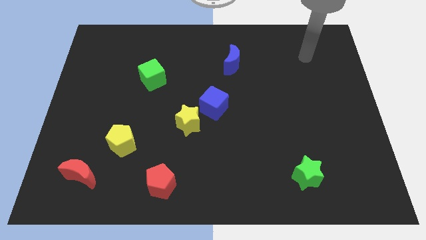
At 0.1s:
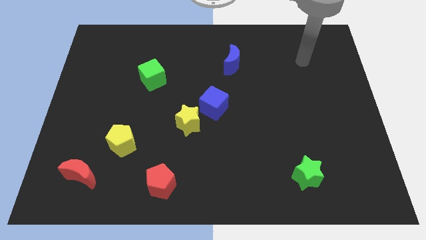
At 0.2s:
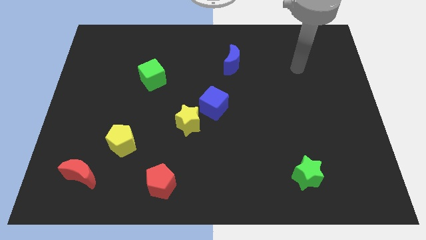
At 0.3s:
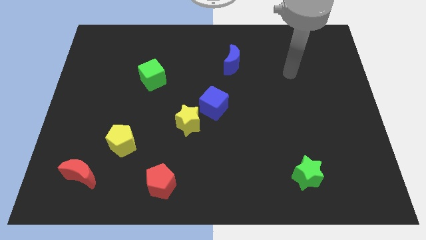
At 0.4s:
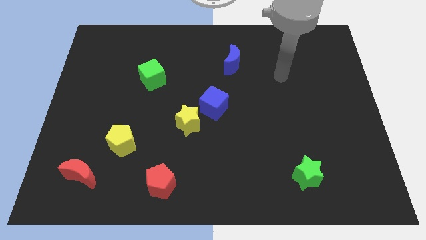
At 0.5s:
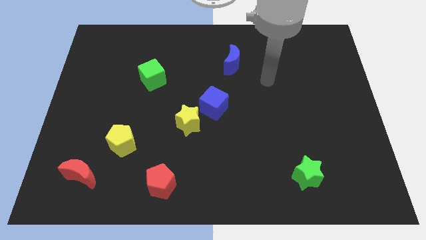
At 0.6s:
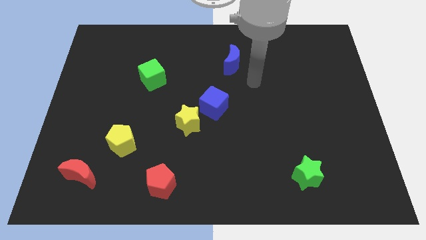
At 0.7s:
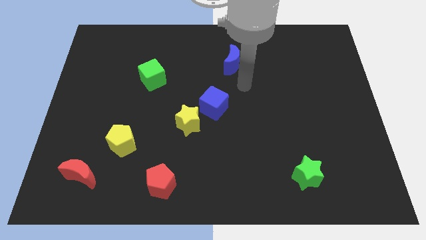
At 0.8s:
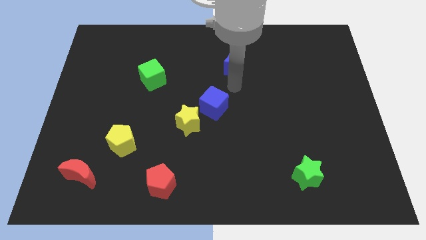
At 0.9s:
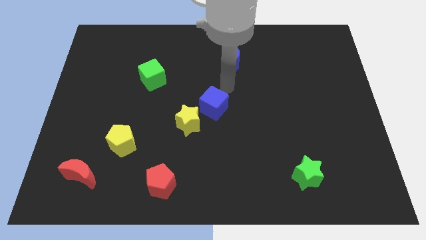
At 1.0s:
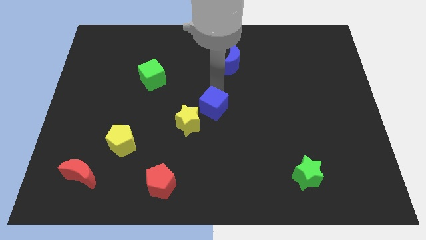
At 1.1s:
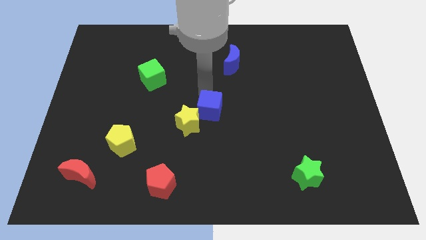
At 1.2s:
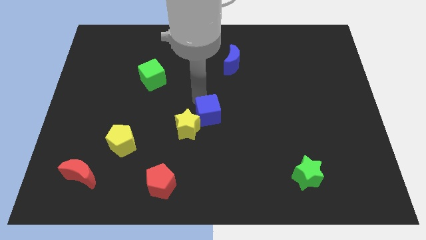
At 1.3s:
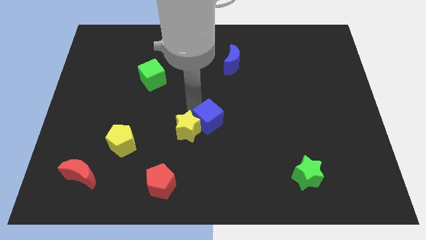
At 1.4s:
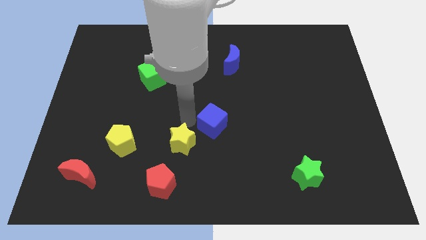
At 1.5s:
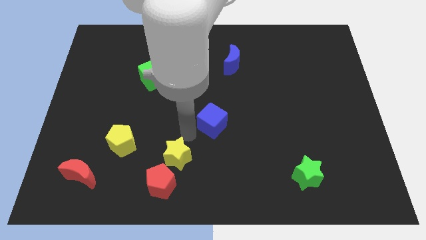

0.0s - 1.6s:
separate the blue cube from the yellow star

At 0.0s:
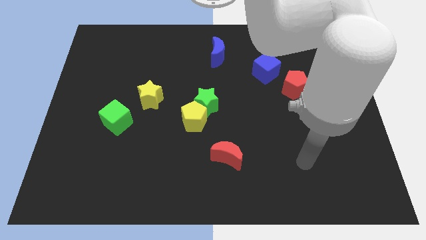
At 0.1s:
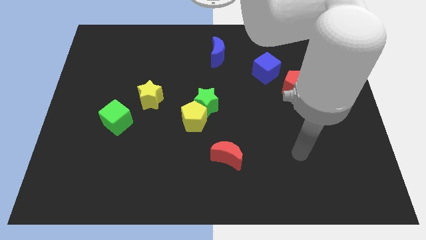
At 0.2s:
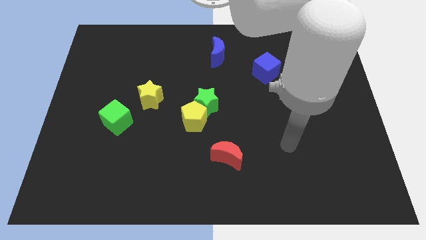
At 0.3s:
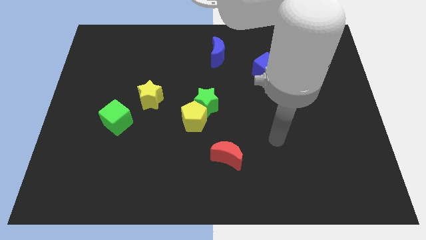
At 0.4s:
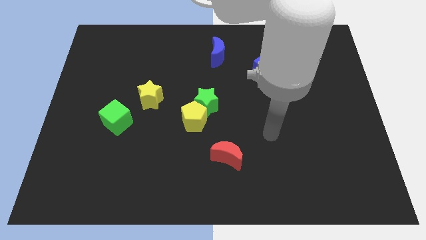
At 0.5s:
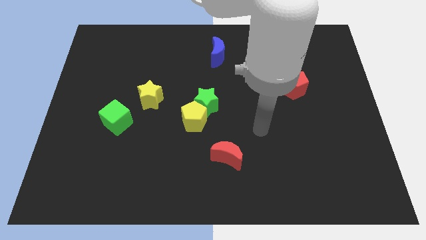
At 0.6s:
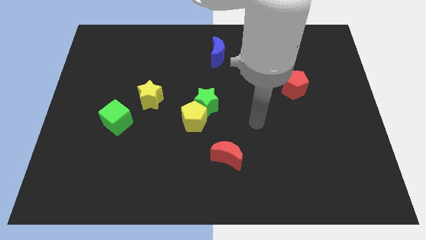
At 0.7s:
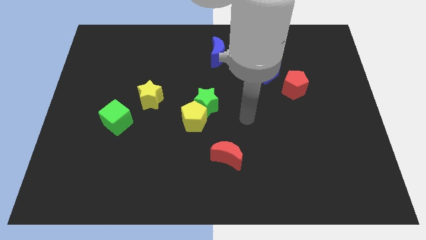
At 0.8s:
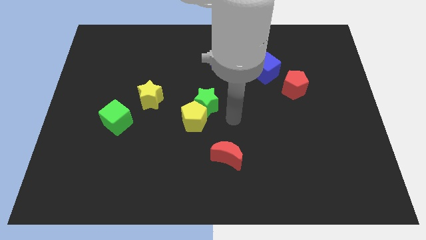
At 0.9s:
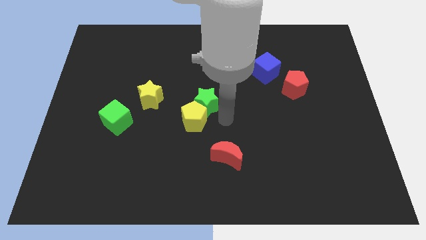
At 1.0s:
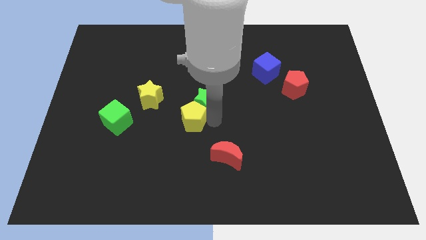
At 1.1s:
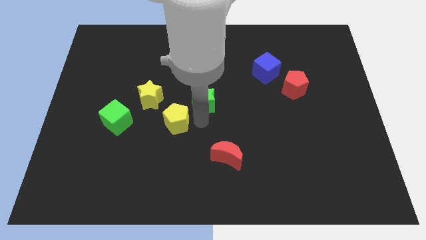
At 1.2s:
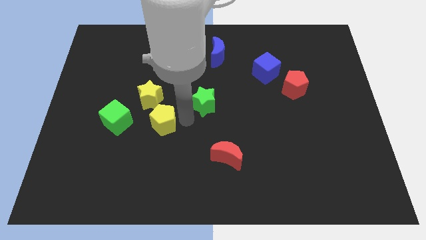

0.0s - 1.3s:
pull the green star apart from the yellow pentagon

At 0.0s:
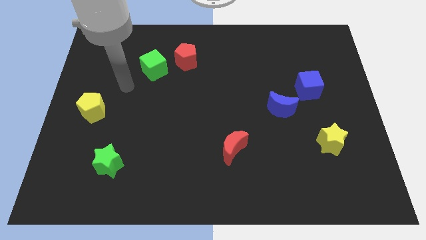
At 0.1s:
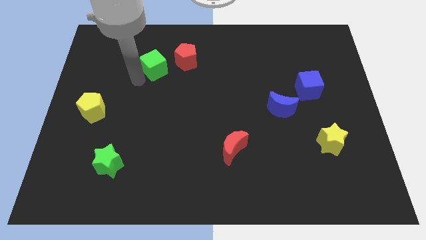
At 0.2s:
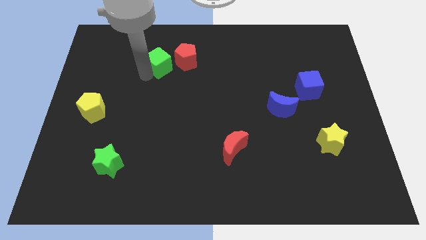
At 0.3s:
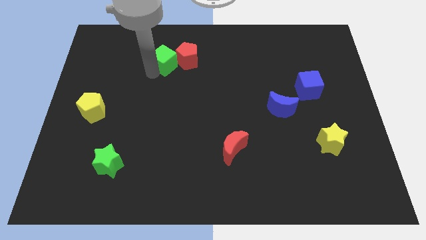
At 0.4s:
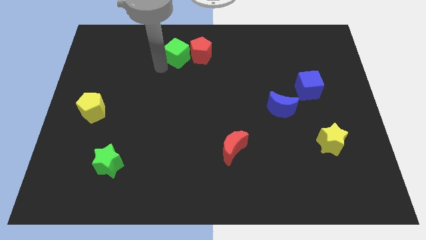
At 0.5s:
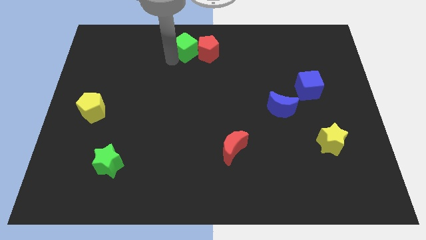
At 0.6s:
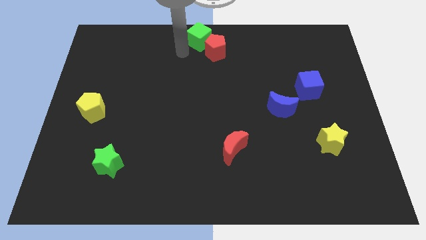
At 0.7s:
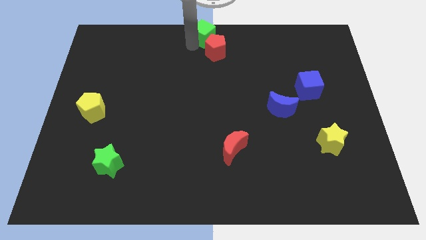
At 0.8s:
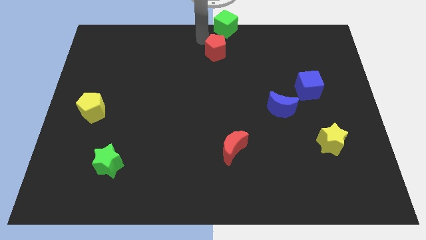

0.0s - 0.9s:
separate the red pentagon from the green cube

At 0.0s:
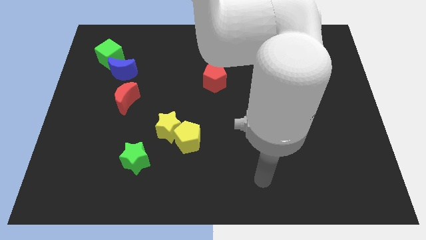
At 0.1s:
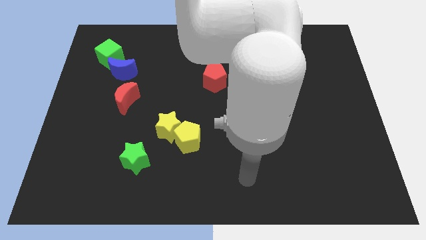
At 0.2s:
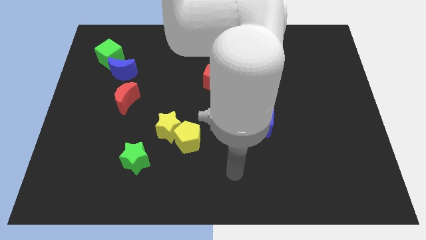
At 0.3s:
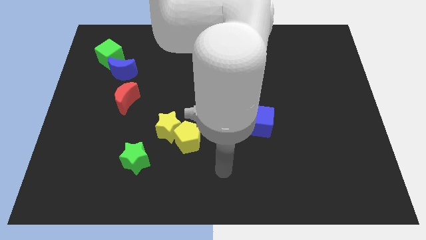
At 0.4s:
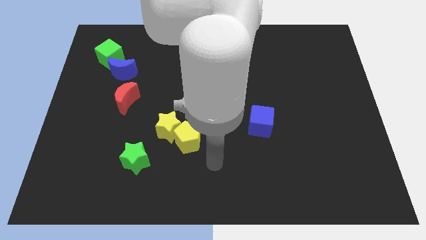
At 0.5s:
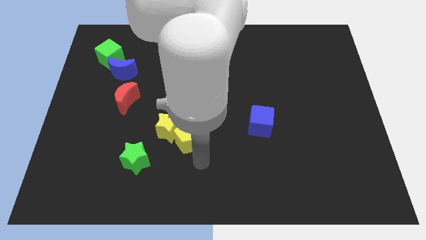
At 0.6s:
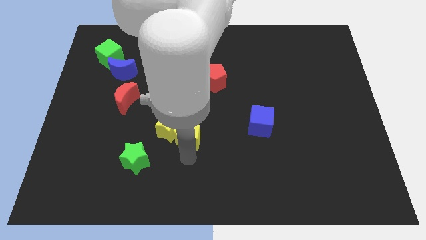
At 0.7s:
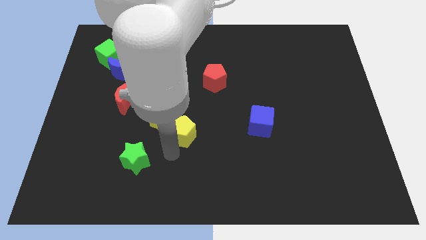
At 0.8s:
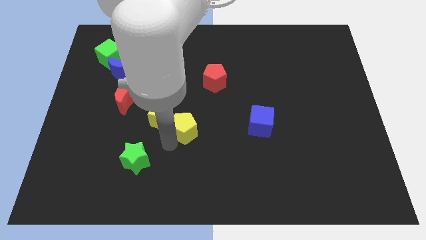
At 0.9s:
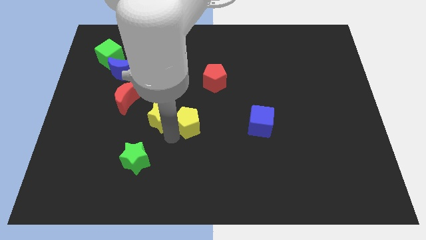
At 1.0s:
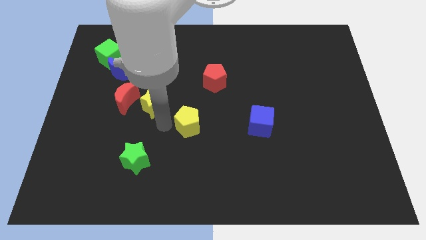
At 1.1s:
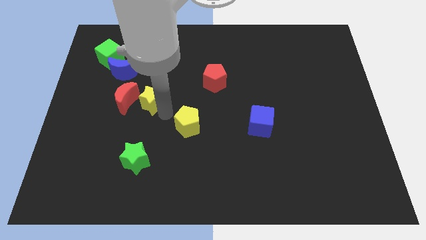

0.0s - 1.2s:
move the yellow pentagon away from the yellow star

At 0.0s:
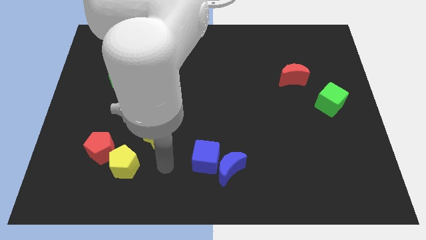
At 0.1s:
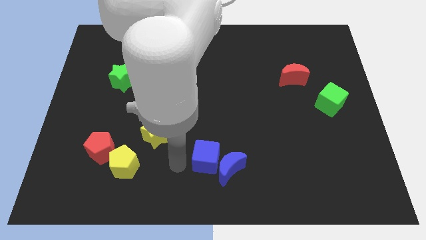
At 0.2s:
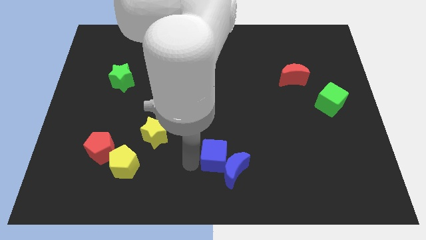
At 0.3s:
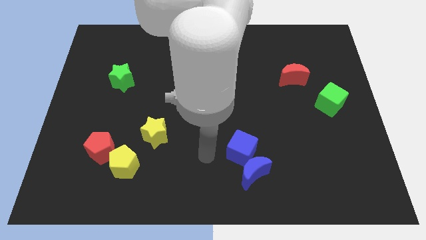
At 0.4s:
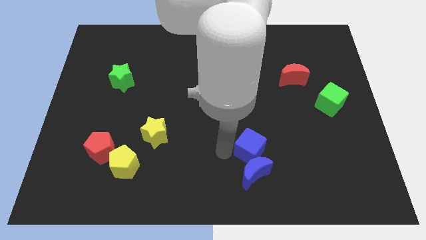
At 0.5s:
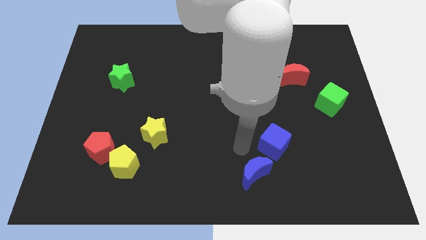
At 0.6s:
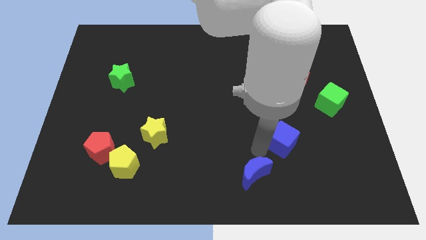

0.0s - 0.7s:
separate the blue moon from the blue cube

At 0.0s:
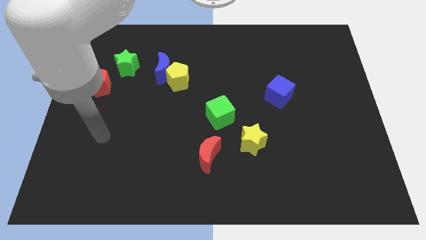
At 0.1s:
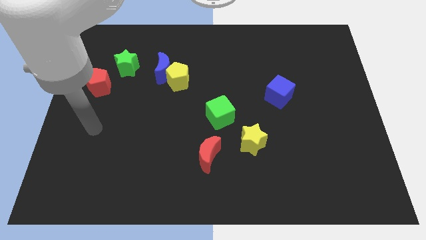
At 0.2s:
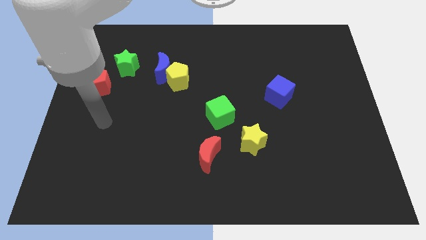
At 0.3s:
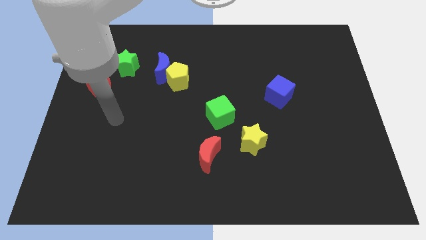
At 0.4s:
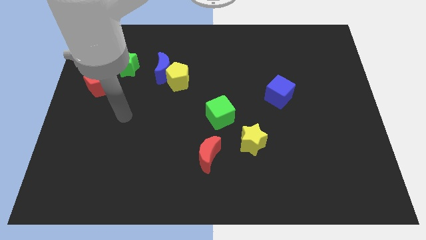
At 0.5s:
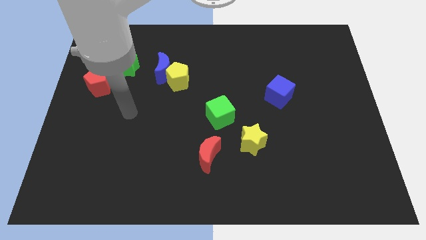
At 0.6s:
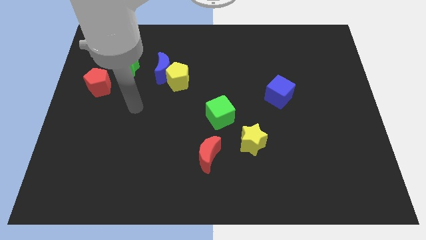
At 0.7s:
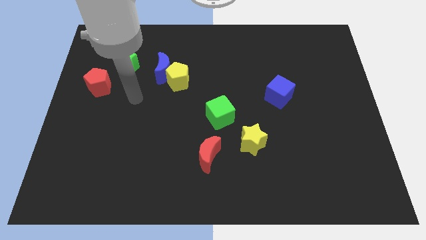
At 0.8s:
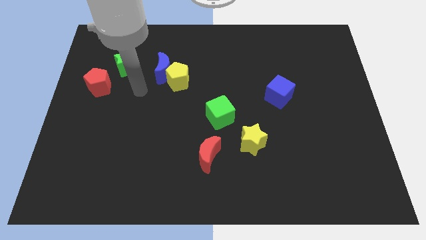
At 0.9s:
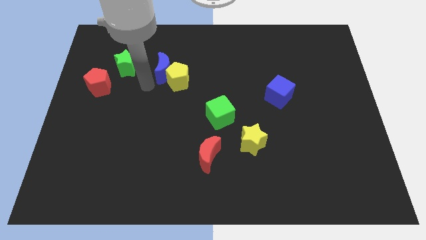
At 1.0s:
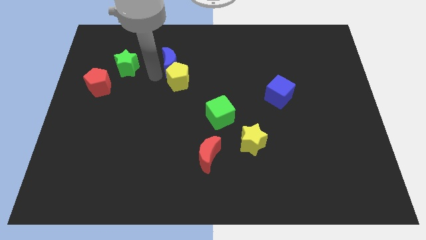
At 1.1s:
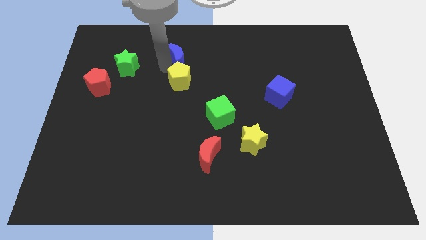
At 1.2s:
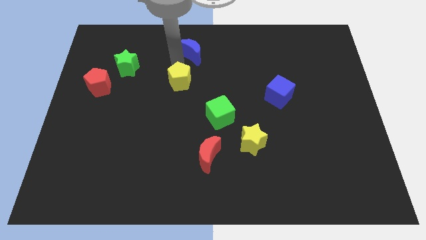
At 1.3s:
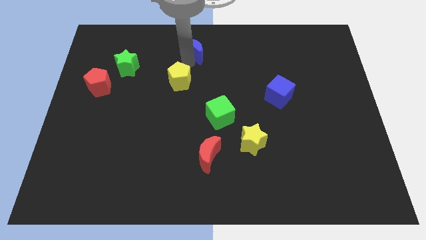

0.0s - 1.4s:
pull the yellow pentagon apart from the blue moon

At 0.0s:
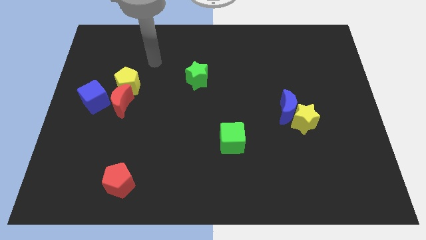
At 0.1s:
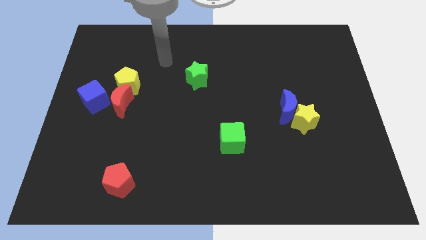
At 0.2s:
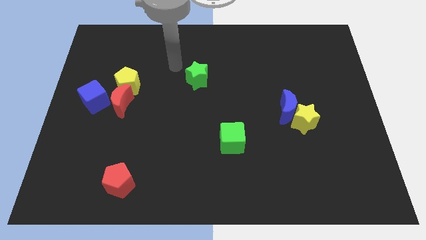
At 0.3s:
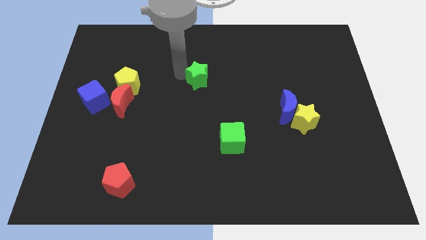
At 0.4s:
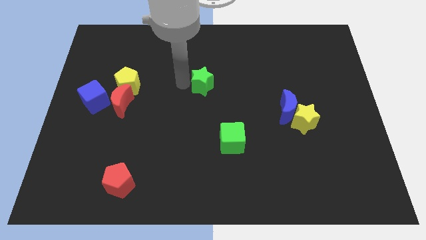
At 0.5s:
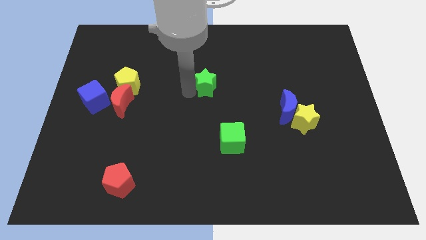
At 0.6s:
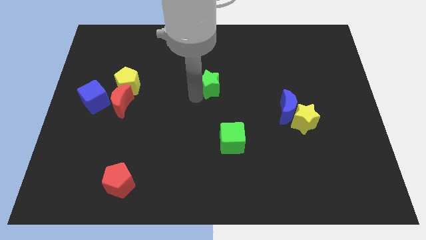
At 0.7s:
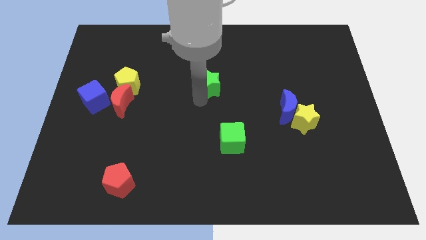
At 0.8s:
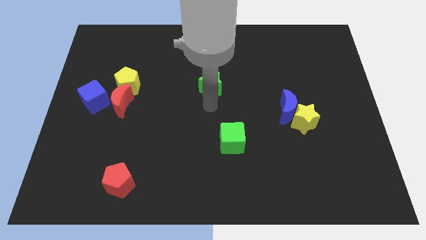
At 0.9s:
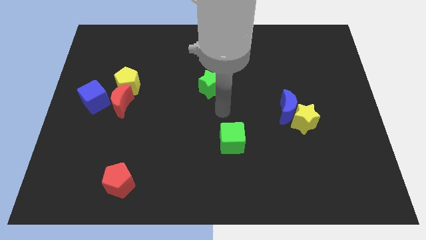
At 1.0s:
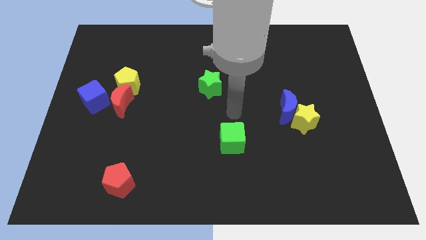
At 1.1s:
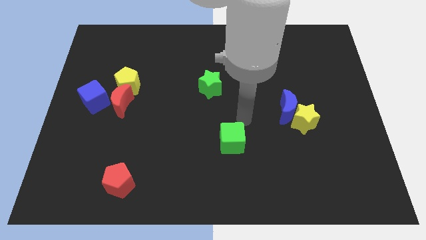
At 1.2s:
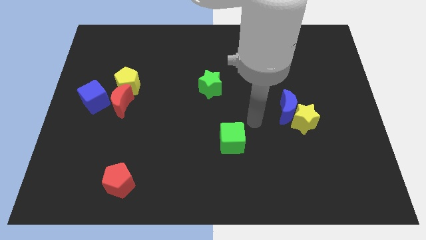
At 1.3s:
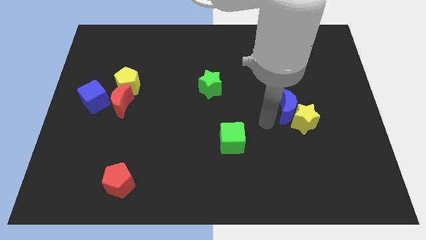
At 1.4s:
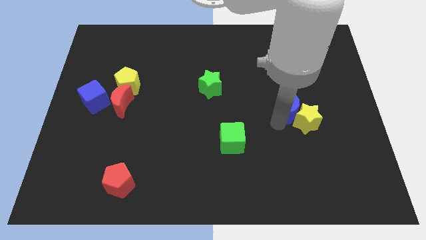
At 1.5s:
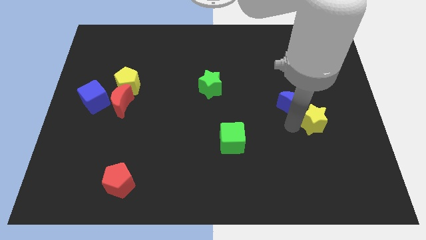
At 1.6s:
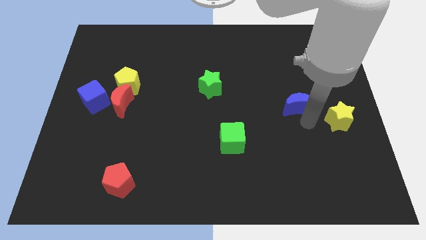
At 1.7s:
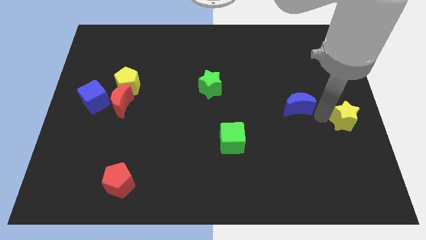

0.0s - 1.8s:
move the blue moon away from the yellow star

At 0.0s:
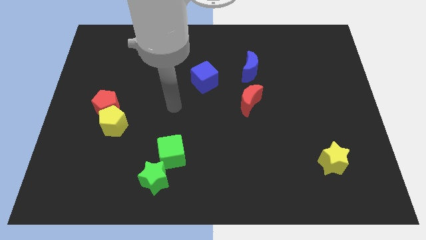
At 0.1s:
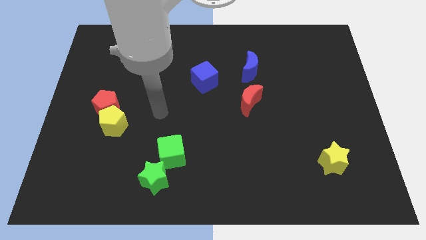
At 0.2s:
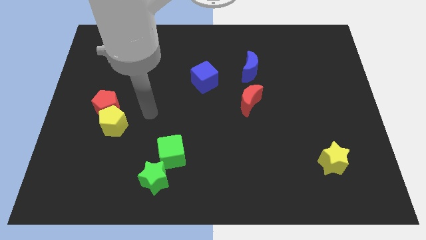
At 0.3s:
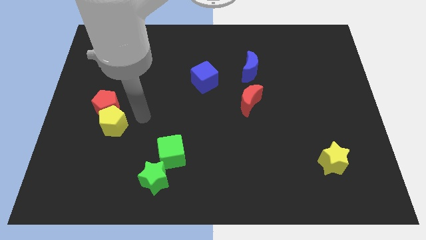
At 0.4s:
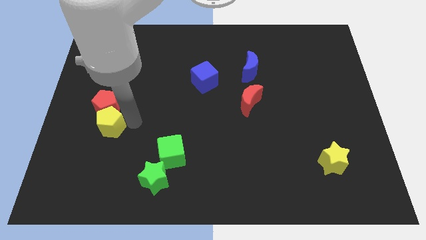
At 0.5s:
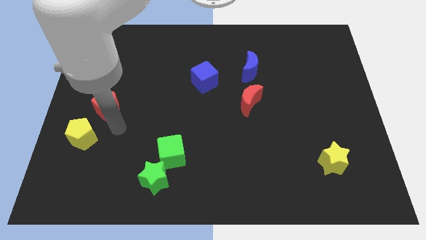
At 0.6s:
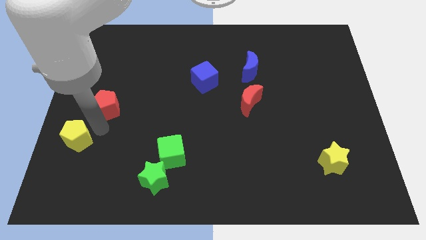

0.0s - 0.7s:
pull the red pentagon apart from the yellow pentagon
